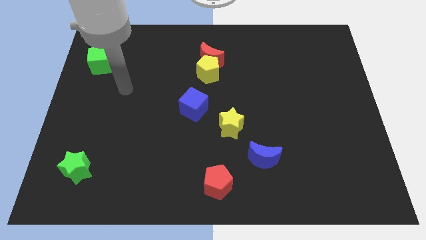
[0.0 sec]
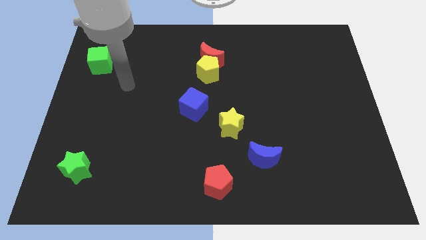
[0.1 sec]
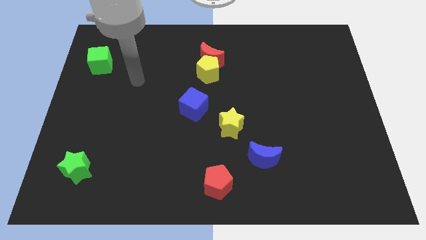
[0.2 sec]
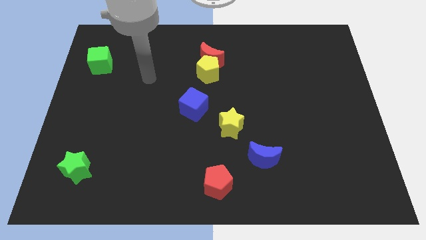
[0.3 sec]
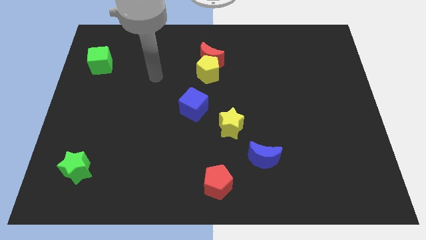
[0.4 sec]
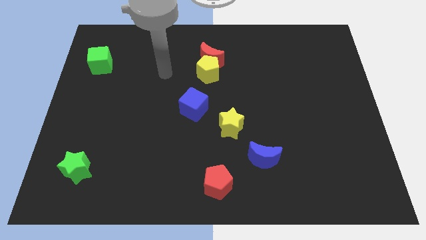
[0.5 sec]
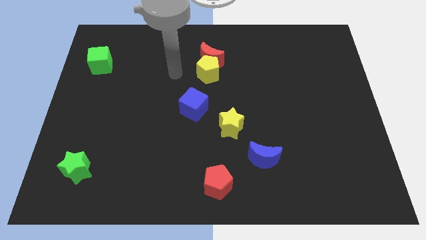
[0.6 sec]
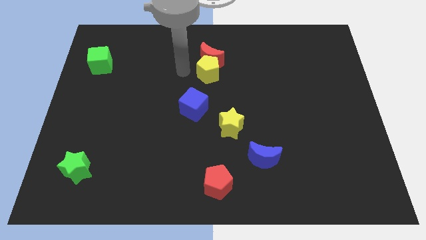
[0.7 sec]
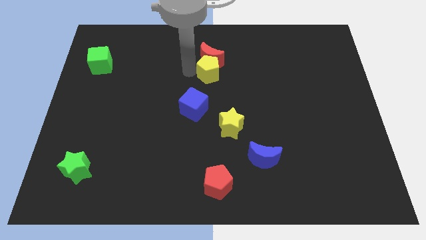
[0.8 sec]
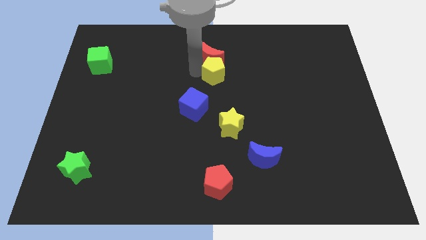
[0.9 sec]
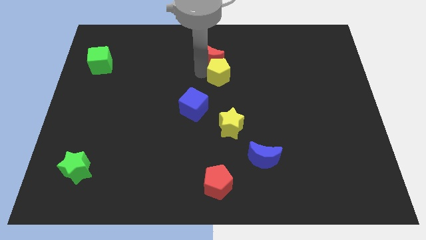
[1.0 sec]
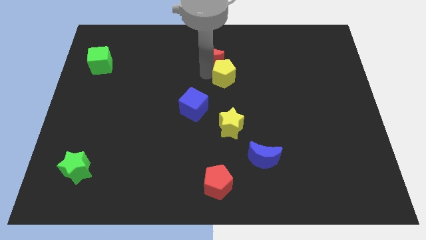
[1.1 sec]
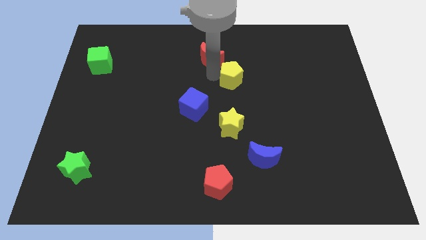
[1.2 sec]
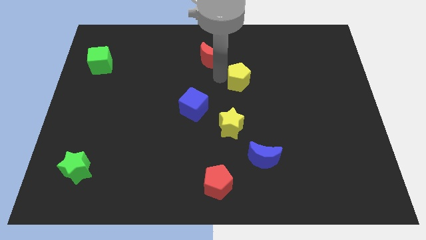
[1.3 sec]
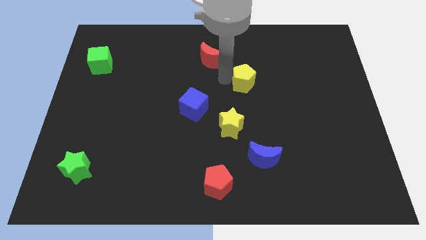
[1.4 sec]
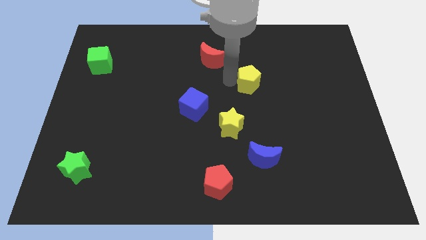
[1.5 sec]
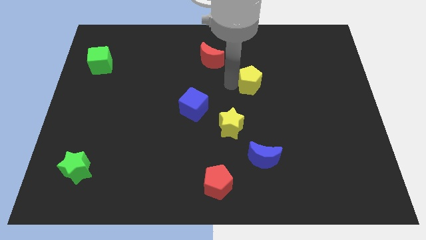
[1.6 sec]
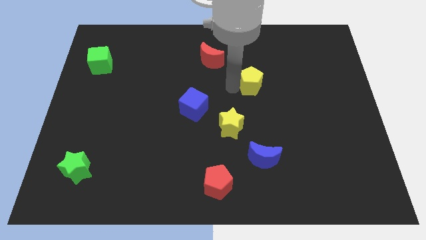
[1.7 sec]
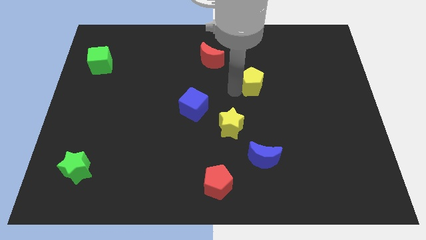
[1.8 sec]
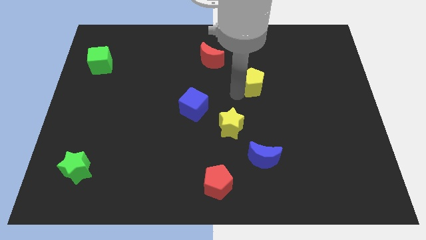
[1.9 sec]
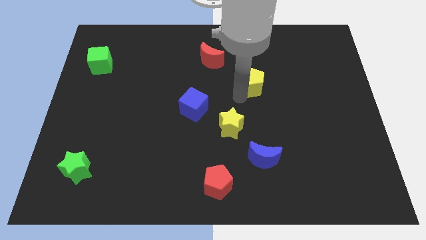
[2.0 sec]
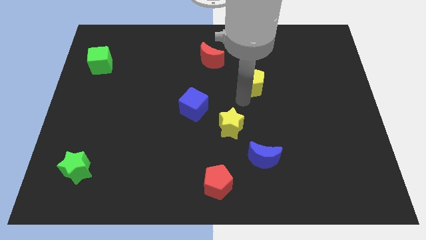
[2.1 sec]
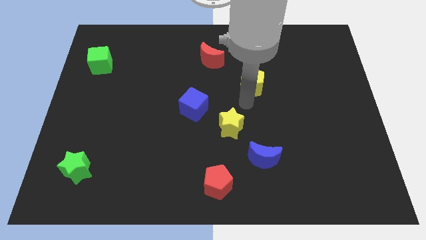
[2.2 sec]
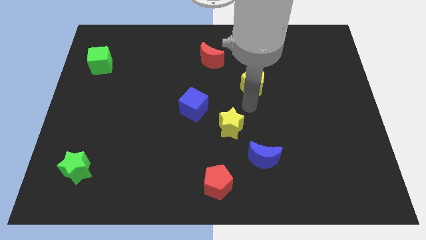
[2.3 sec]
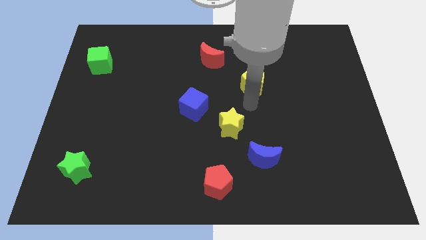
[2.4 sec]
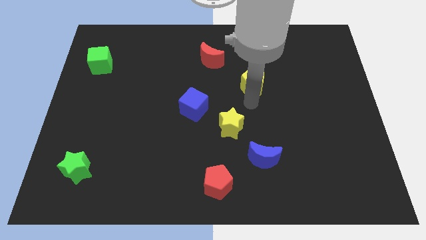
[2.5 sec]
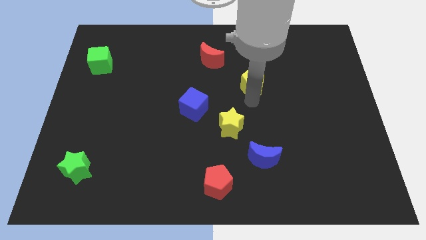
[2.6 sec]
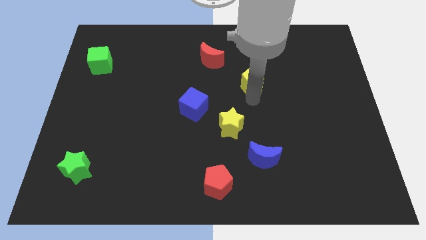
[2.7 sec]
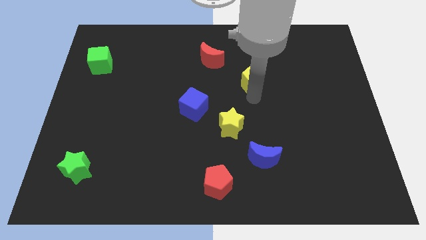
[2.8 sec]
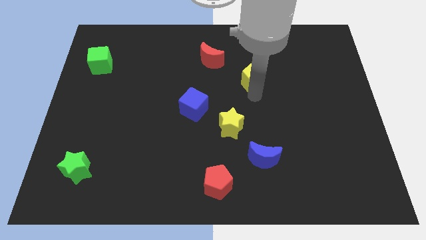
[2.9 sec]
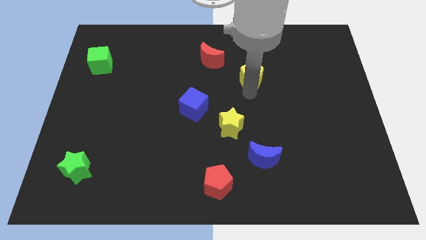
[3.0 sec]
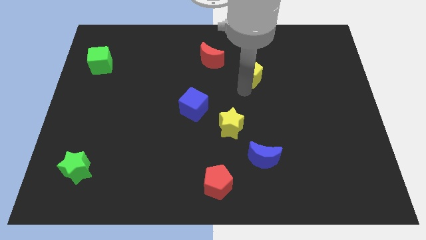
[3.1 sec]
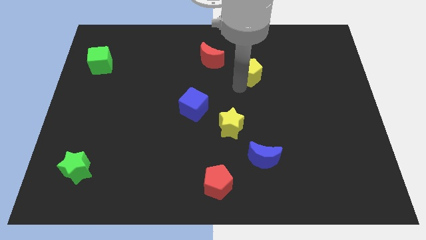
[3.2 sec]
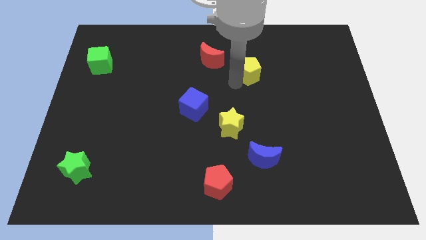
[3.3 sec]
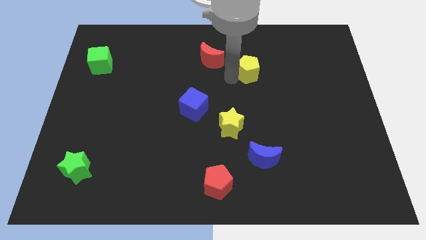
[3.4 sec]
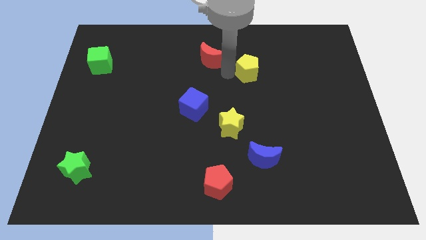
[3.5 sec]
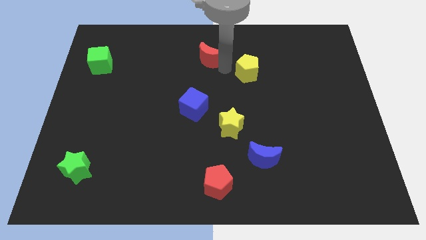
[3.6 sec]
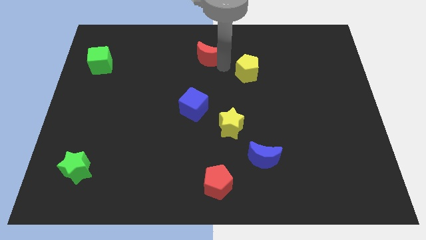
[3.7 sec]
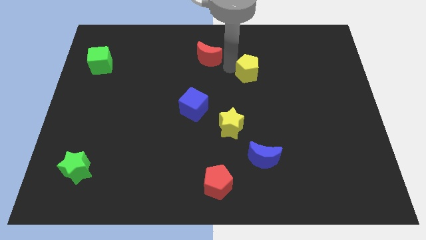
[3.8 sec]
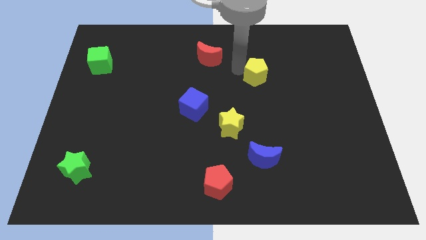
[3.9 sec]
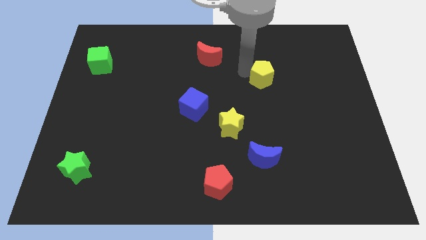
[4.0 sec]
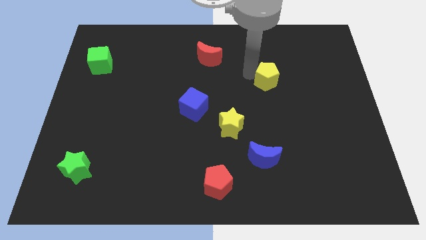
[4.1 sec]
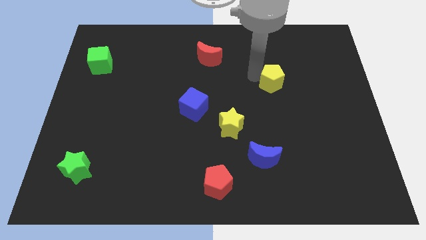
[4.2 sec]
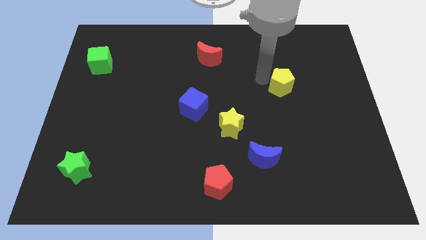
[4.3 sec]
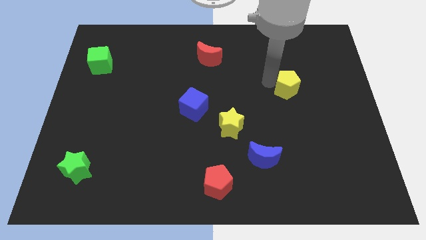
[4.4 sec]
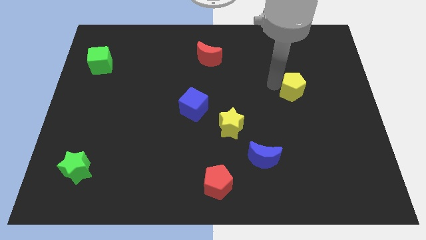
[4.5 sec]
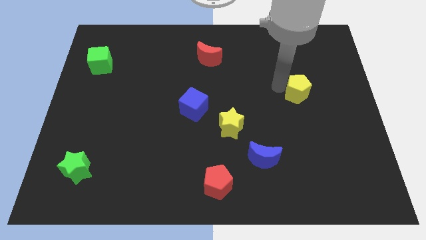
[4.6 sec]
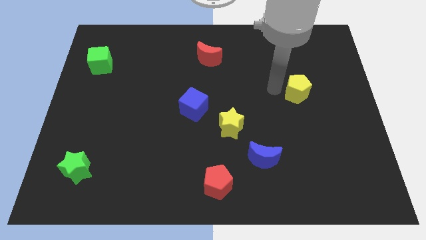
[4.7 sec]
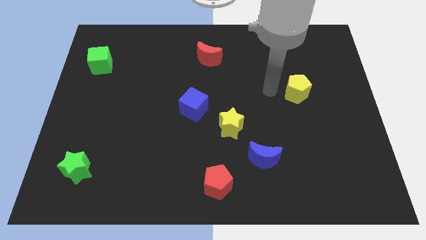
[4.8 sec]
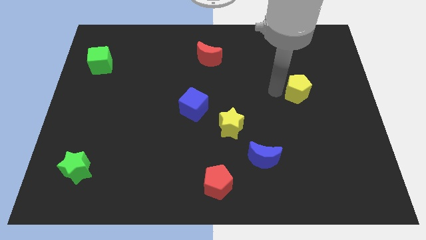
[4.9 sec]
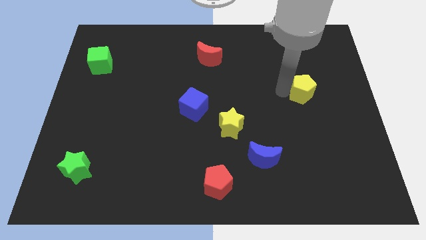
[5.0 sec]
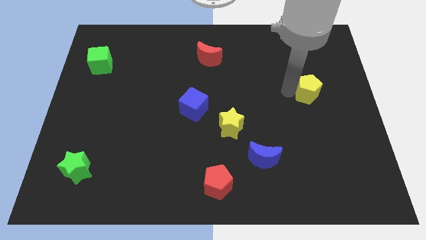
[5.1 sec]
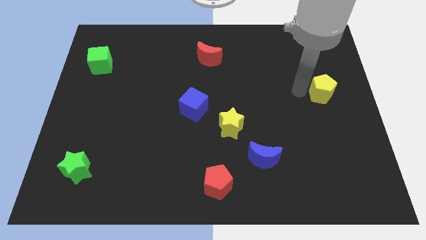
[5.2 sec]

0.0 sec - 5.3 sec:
push the yellow pentagon to the right side of the board

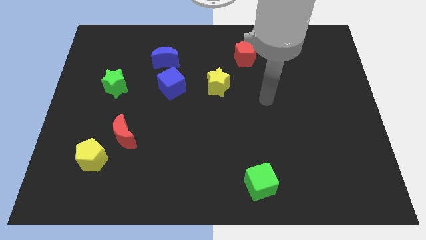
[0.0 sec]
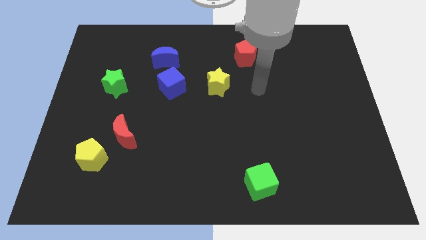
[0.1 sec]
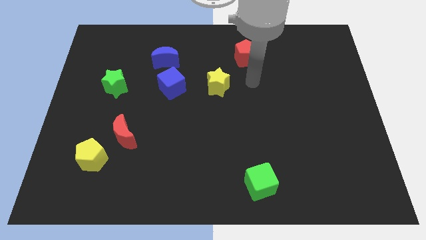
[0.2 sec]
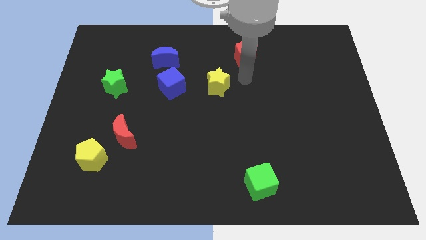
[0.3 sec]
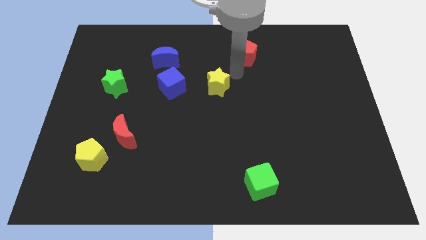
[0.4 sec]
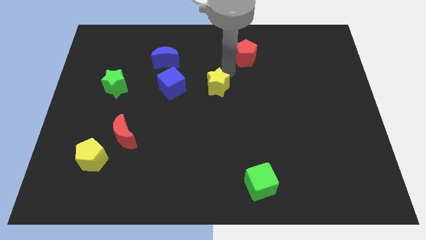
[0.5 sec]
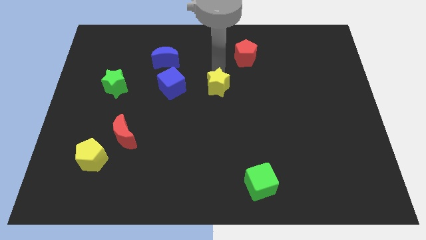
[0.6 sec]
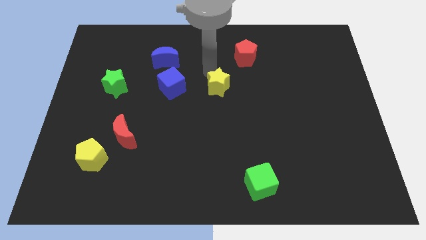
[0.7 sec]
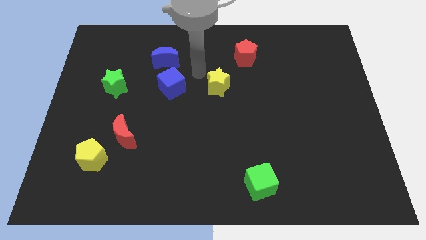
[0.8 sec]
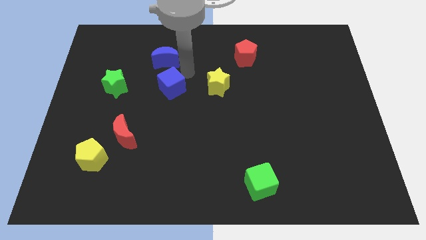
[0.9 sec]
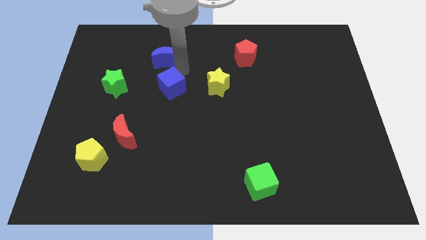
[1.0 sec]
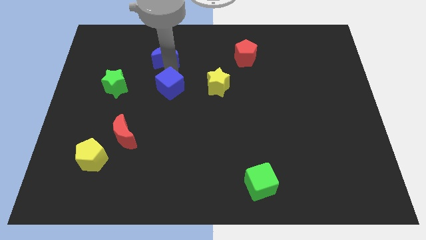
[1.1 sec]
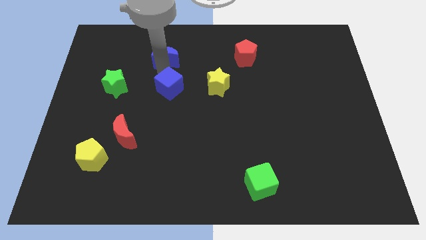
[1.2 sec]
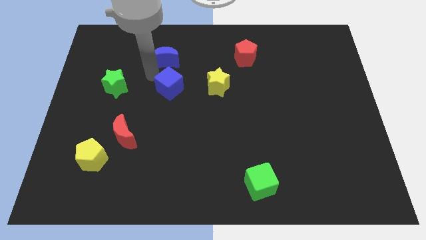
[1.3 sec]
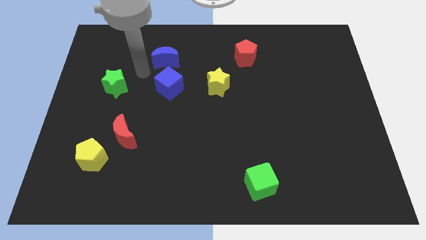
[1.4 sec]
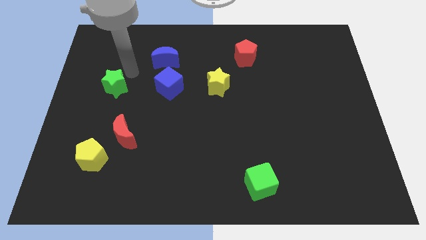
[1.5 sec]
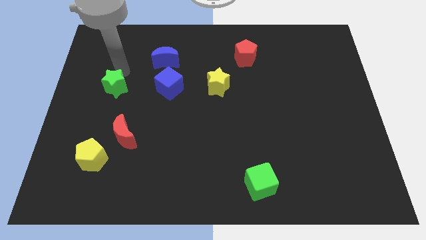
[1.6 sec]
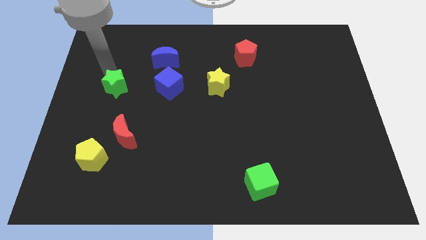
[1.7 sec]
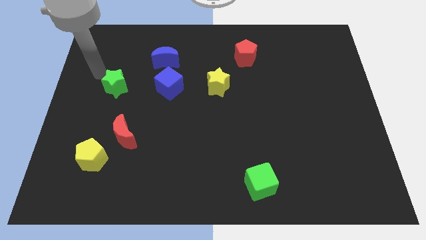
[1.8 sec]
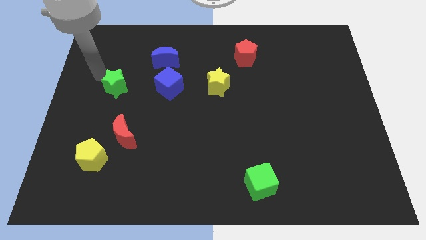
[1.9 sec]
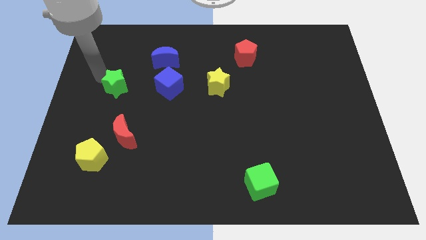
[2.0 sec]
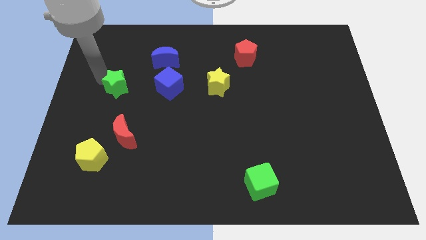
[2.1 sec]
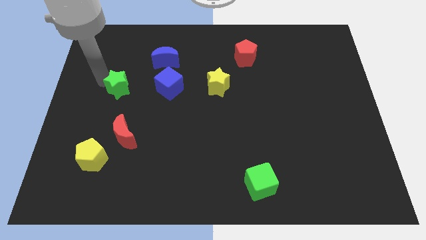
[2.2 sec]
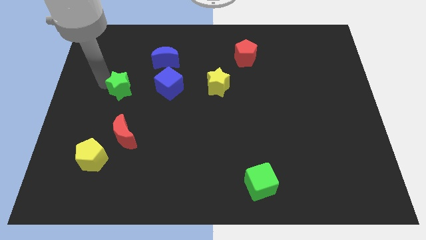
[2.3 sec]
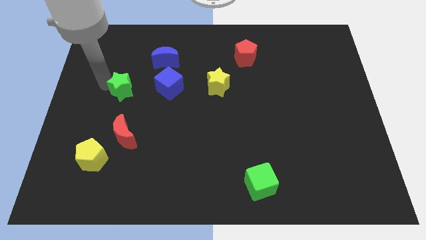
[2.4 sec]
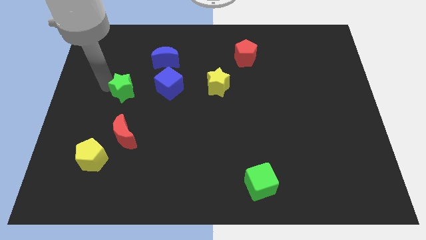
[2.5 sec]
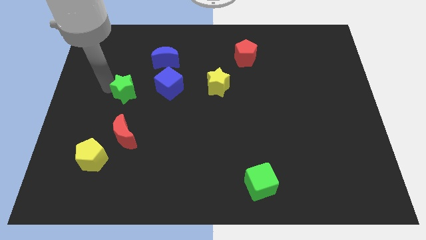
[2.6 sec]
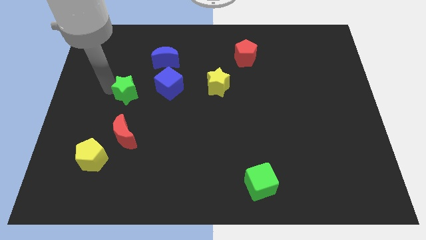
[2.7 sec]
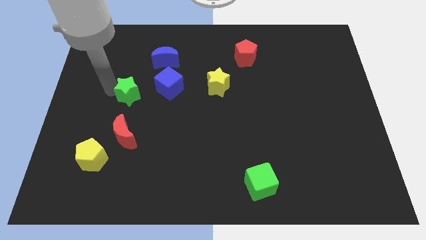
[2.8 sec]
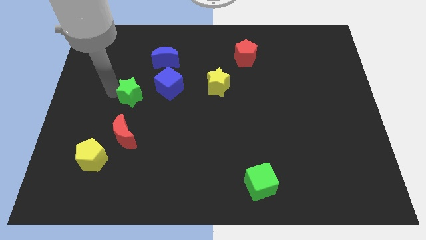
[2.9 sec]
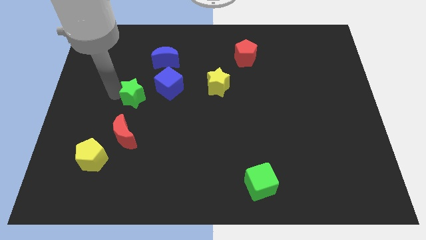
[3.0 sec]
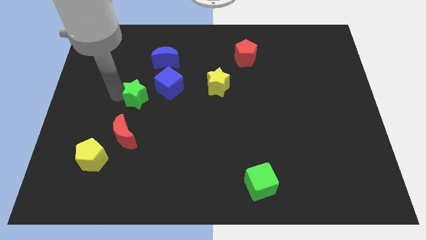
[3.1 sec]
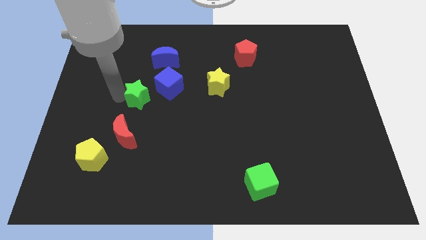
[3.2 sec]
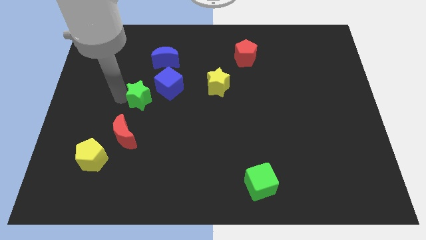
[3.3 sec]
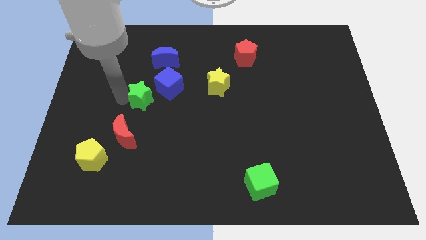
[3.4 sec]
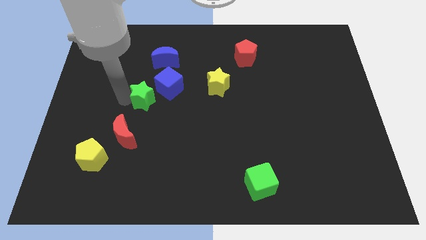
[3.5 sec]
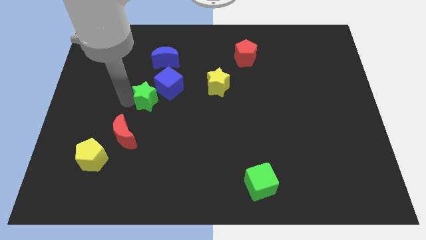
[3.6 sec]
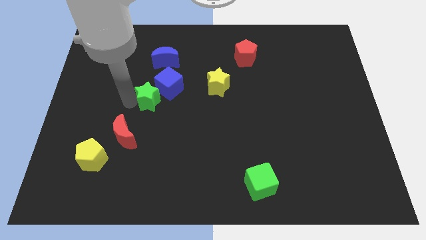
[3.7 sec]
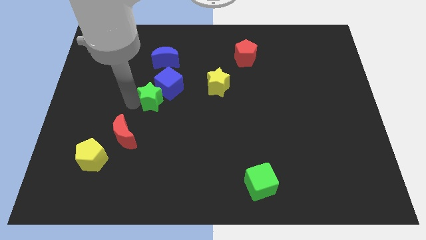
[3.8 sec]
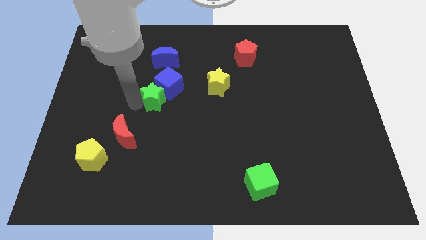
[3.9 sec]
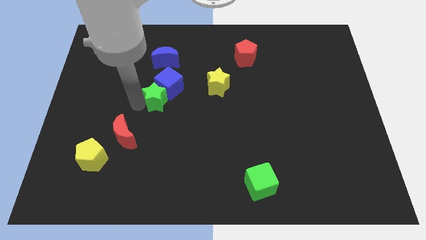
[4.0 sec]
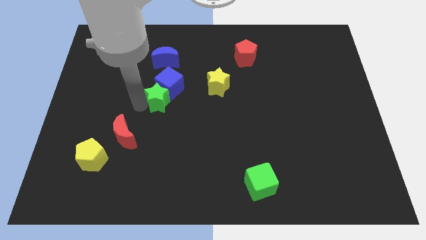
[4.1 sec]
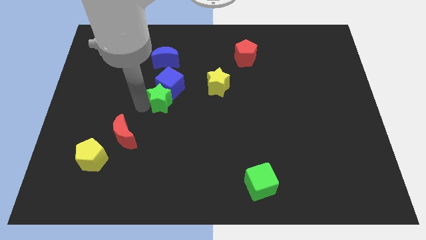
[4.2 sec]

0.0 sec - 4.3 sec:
slide the green star to the center
